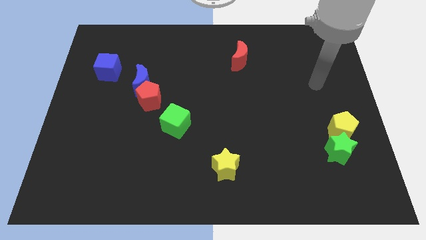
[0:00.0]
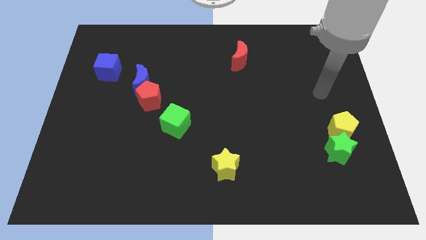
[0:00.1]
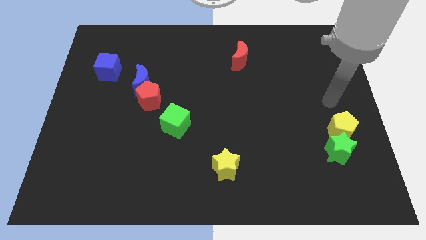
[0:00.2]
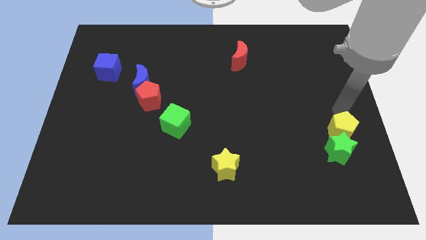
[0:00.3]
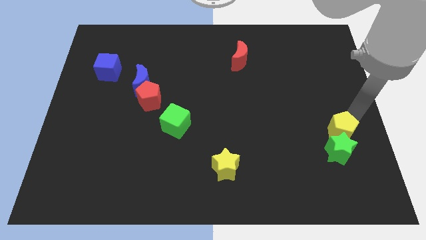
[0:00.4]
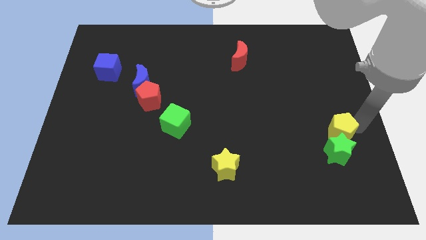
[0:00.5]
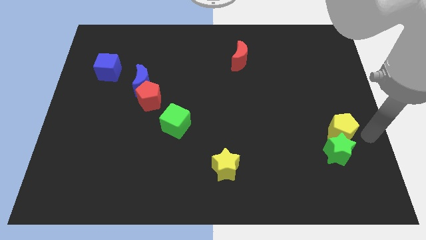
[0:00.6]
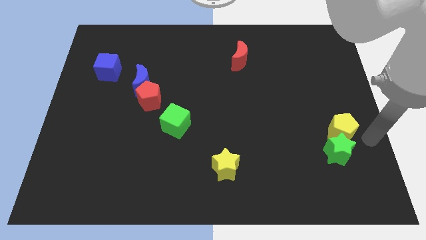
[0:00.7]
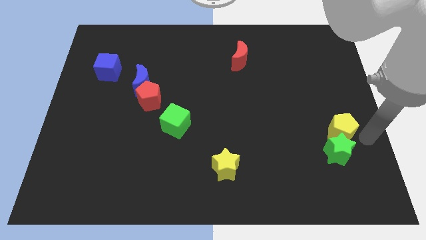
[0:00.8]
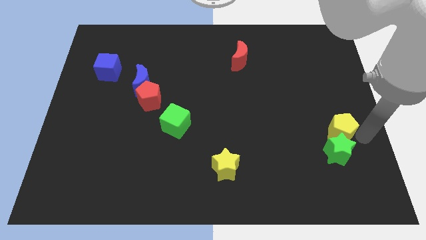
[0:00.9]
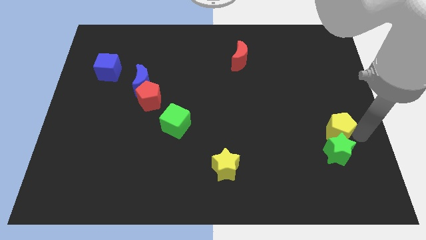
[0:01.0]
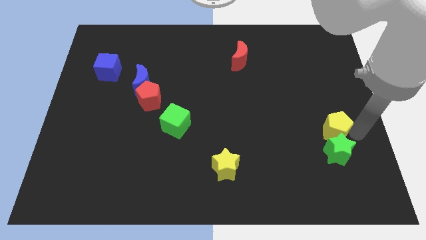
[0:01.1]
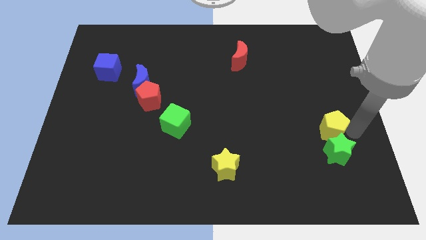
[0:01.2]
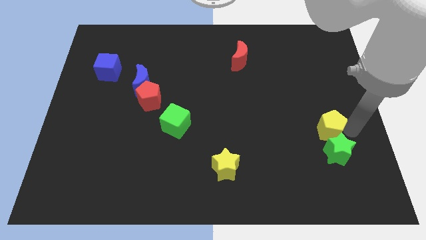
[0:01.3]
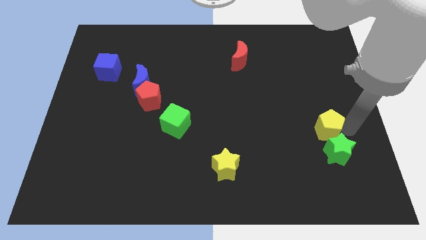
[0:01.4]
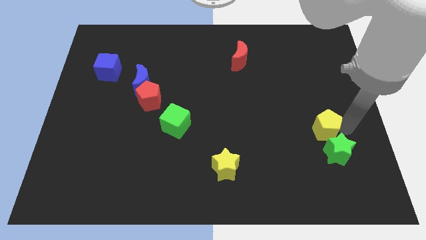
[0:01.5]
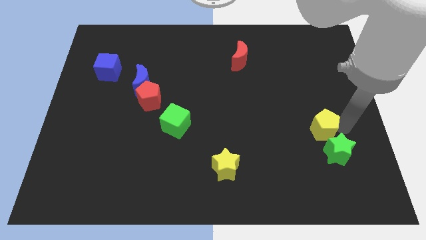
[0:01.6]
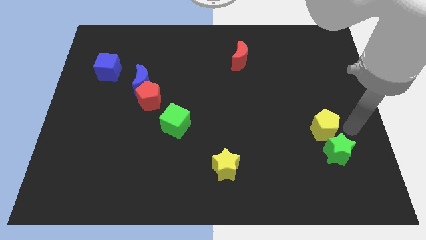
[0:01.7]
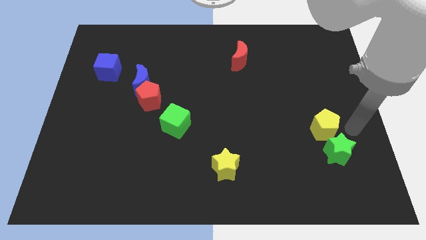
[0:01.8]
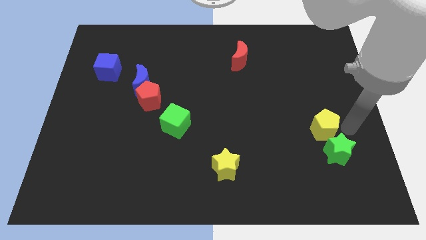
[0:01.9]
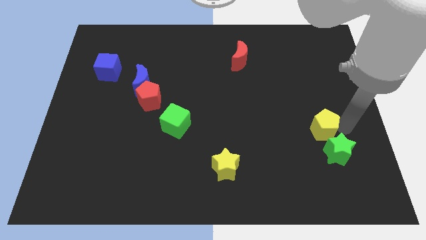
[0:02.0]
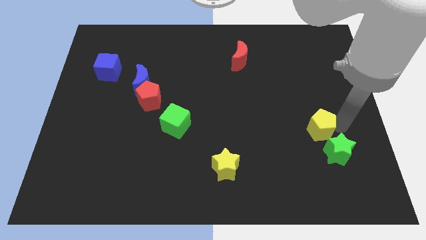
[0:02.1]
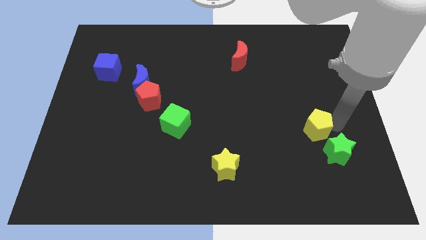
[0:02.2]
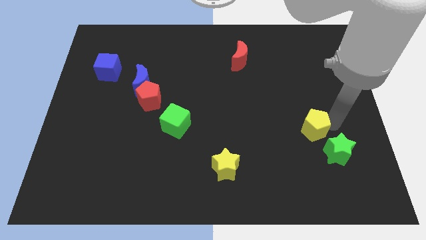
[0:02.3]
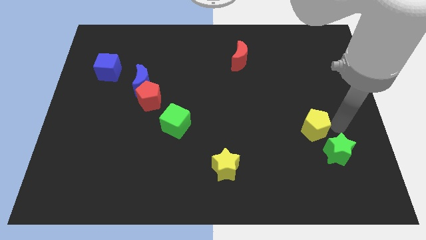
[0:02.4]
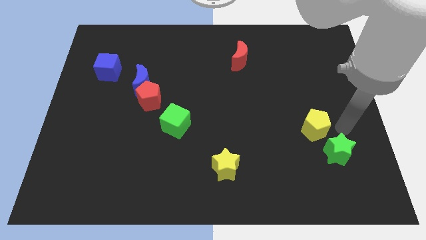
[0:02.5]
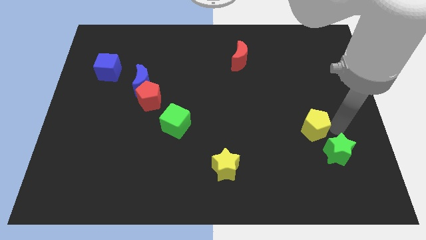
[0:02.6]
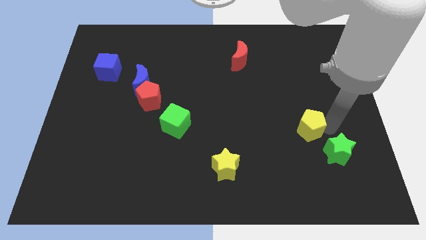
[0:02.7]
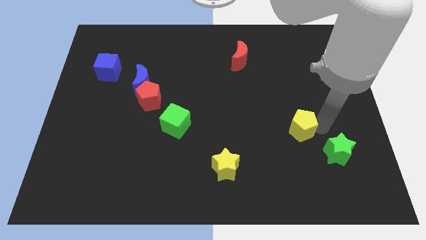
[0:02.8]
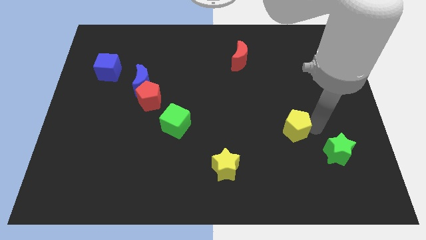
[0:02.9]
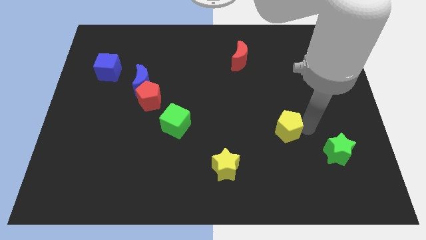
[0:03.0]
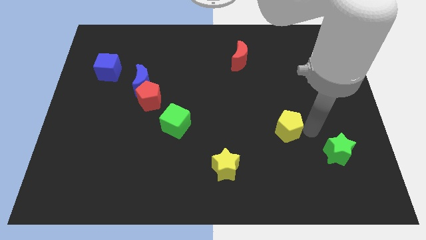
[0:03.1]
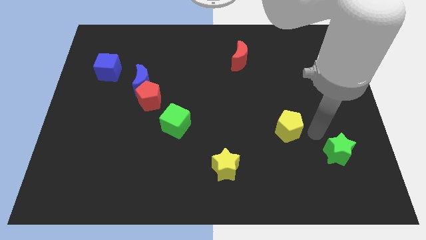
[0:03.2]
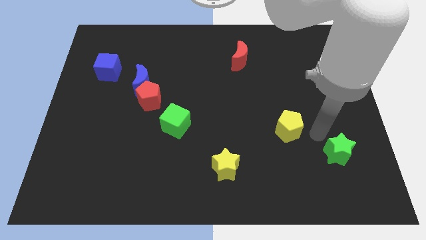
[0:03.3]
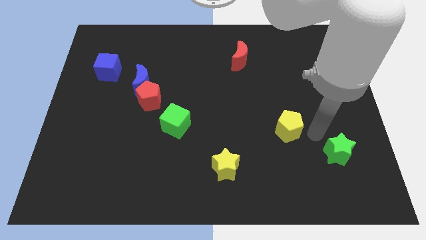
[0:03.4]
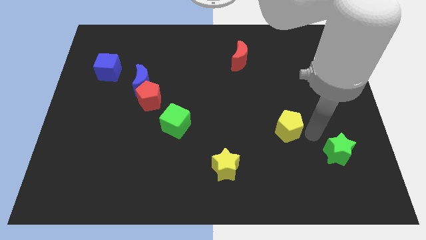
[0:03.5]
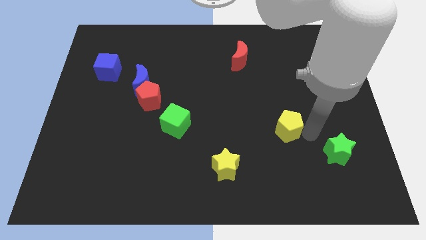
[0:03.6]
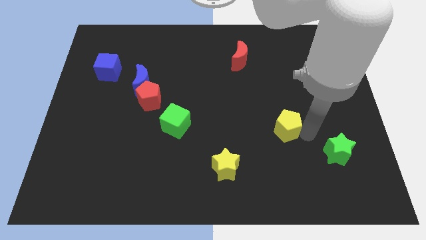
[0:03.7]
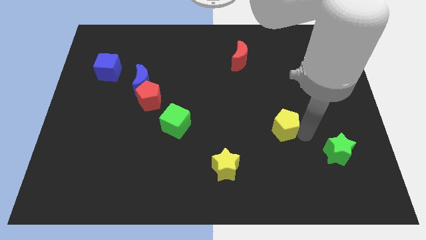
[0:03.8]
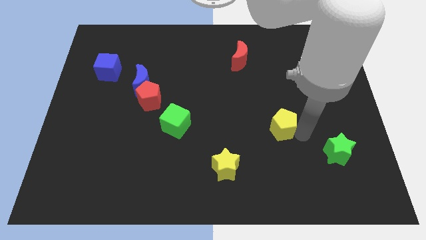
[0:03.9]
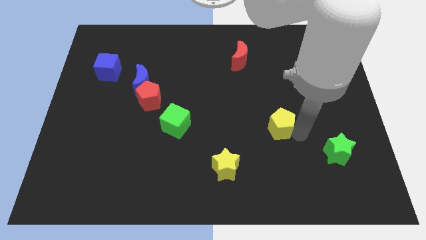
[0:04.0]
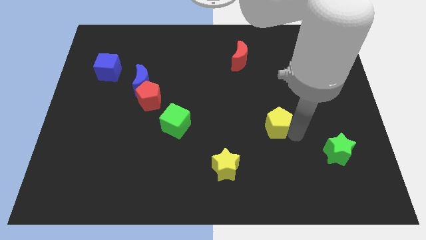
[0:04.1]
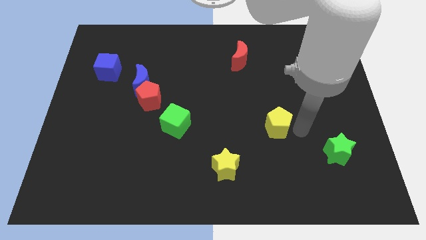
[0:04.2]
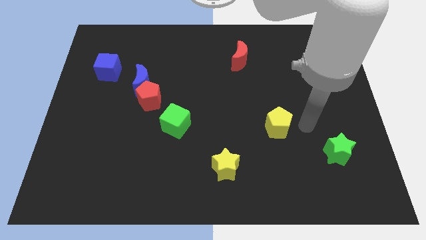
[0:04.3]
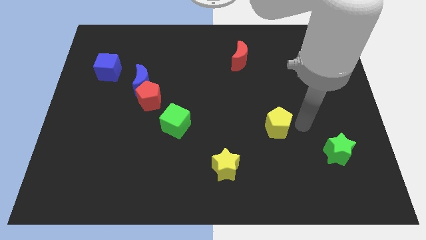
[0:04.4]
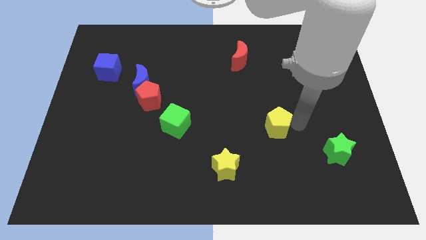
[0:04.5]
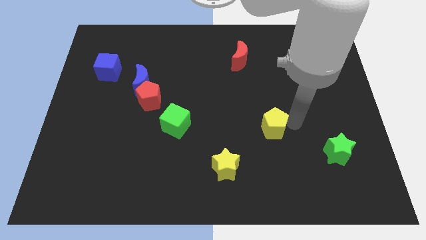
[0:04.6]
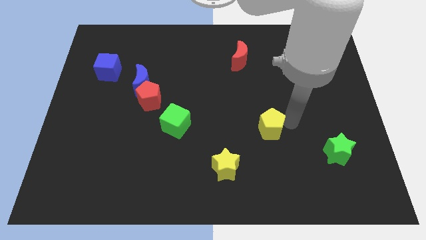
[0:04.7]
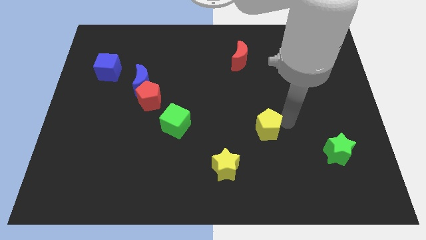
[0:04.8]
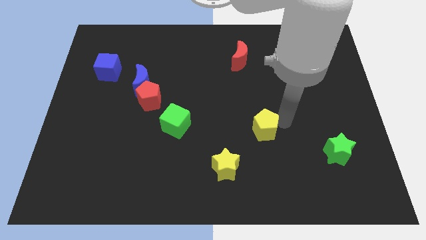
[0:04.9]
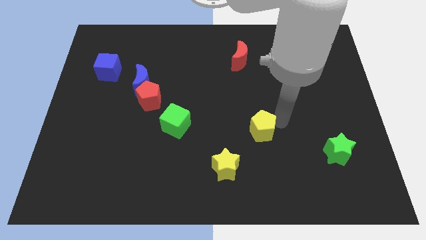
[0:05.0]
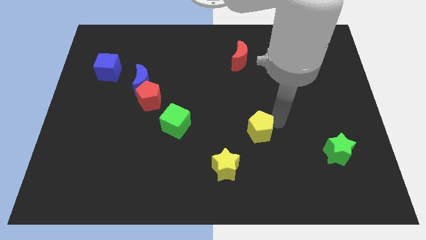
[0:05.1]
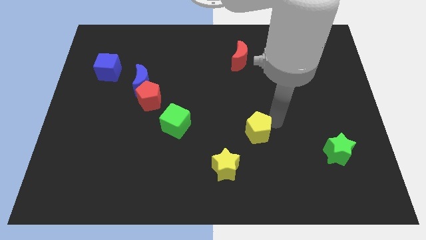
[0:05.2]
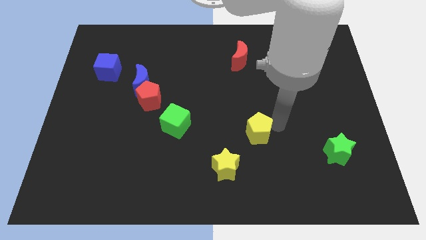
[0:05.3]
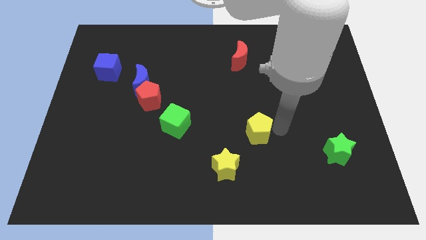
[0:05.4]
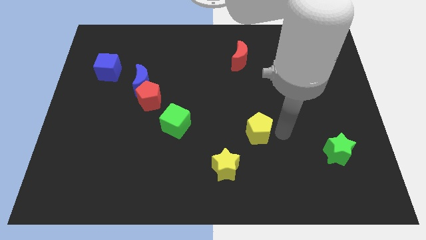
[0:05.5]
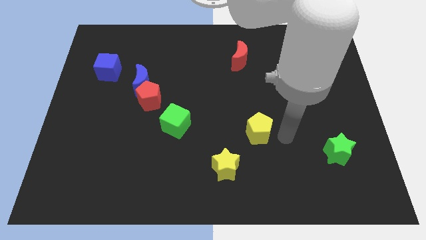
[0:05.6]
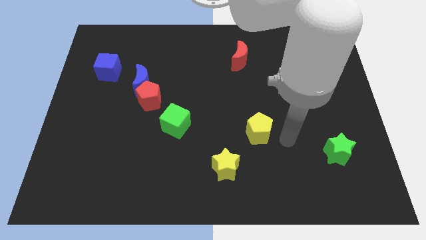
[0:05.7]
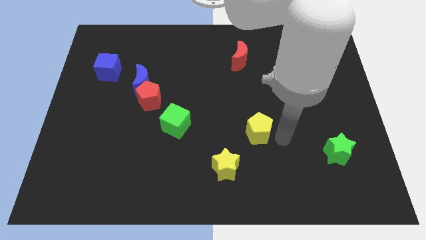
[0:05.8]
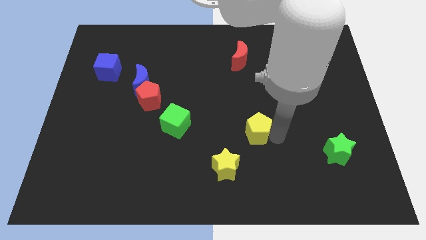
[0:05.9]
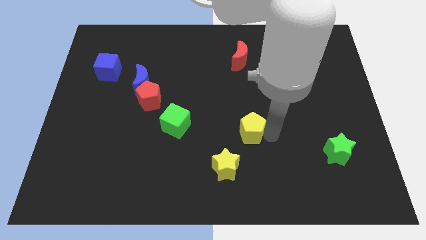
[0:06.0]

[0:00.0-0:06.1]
move the yellow pentagon to the left

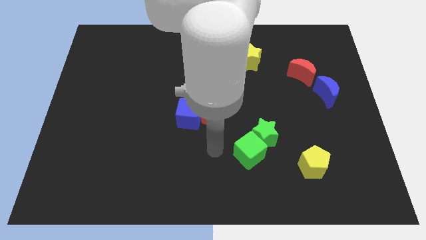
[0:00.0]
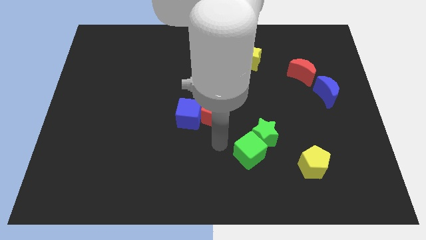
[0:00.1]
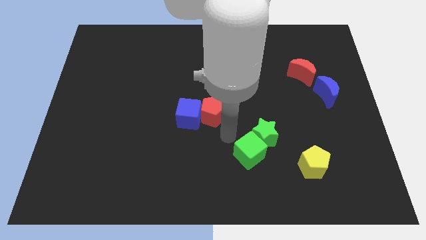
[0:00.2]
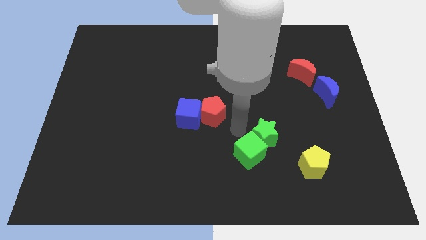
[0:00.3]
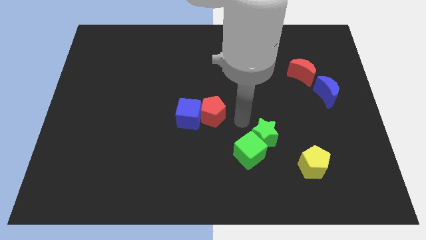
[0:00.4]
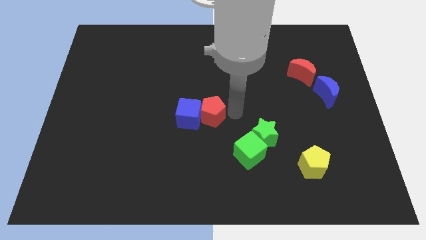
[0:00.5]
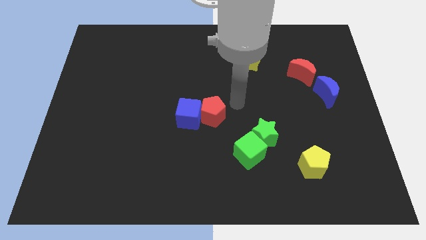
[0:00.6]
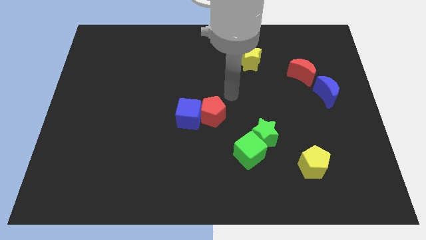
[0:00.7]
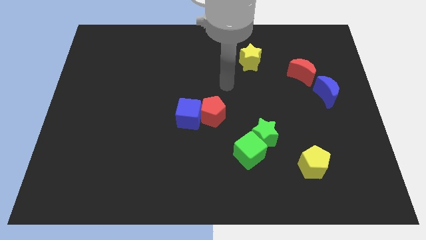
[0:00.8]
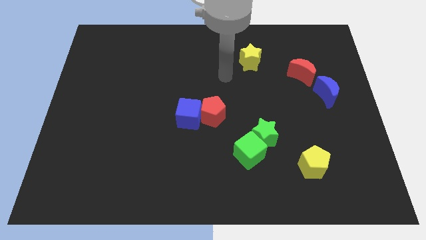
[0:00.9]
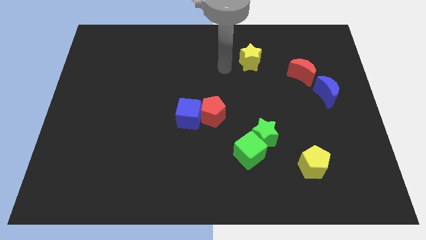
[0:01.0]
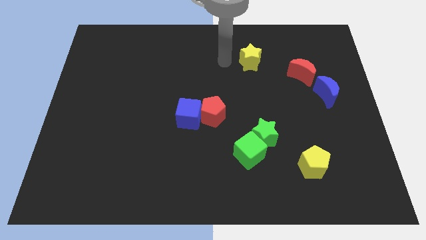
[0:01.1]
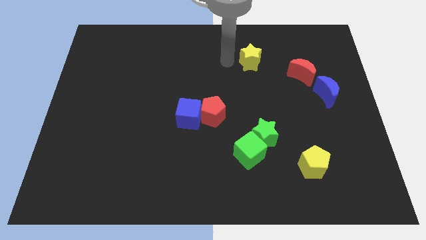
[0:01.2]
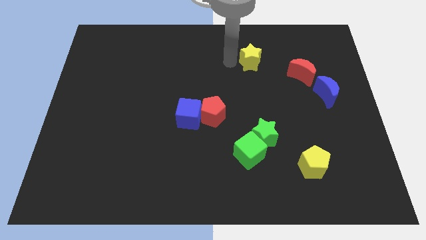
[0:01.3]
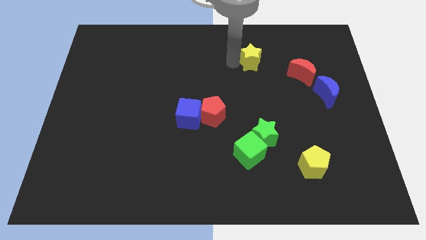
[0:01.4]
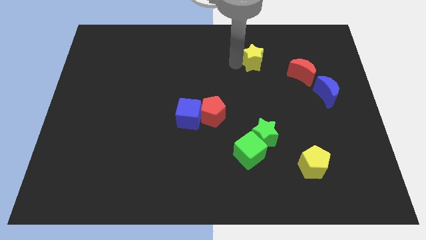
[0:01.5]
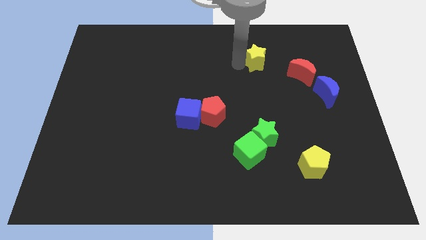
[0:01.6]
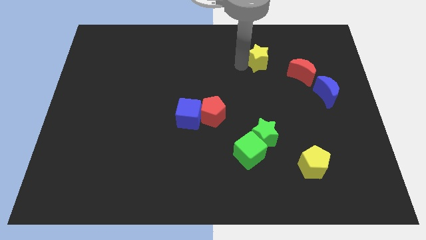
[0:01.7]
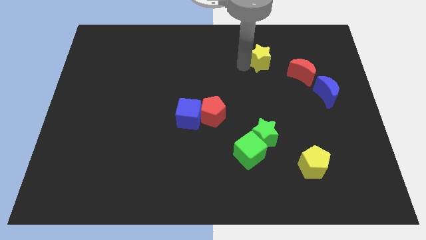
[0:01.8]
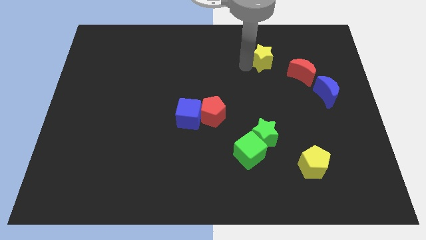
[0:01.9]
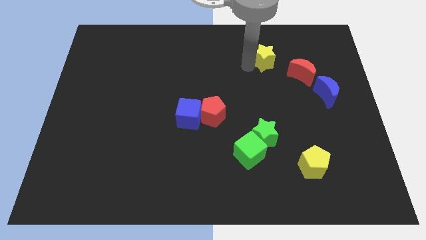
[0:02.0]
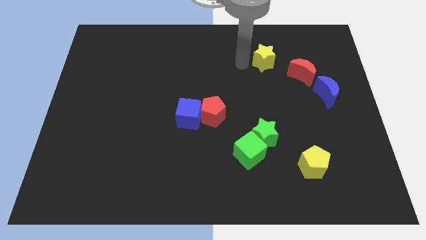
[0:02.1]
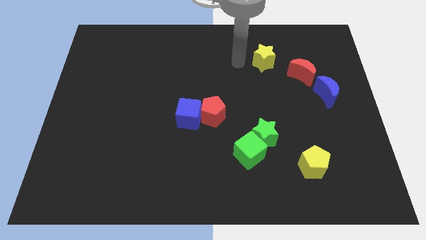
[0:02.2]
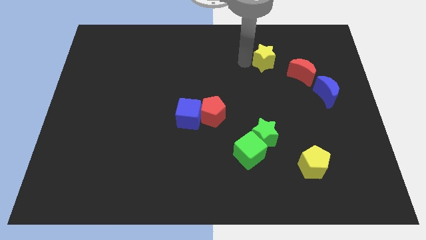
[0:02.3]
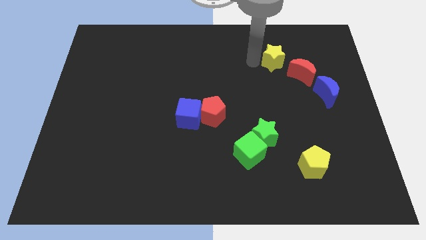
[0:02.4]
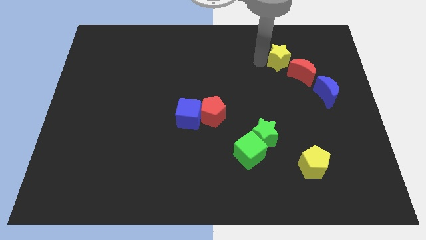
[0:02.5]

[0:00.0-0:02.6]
push the yellow star somewhat right
